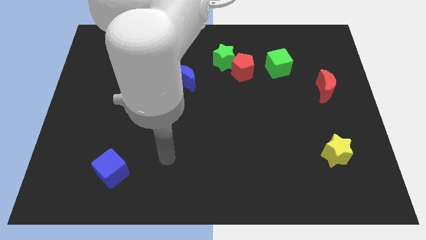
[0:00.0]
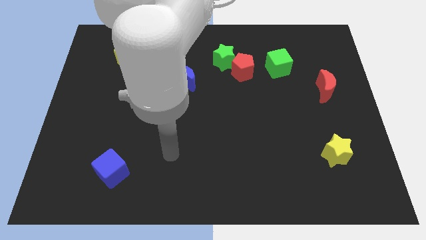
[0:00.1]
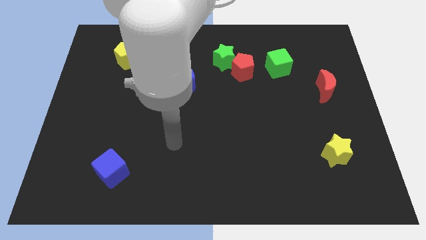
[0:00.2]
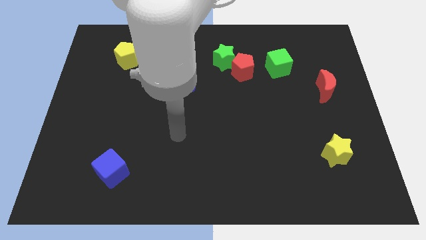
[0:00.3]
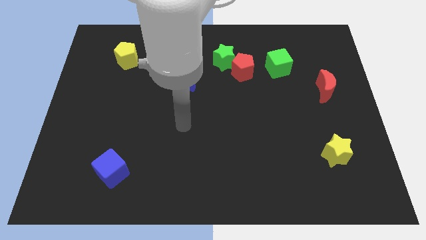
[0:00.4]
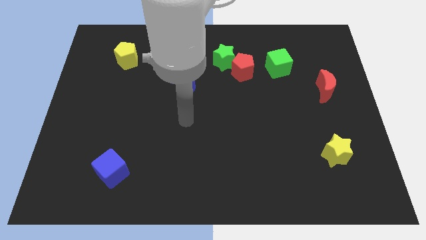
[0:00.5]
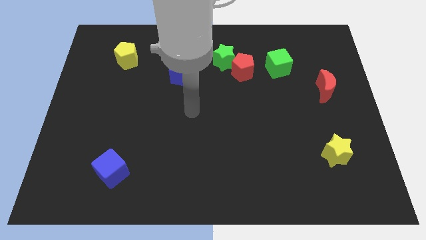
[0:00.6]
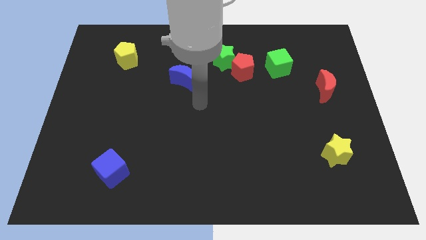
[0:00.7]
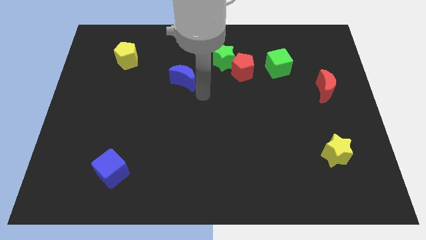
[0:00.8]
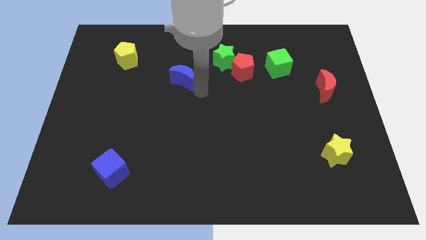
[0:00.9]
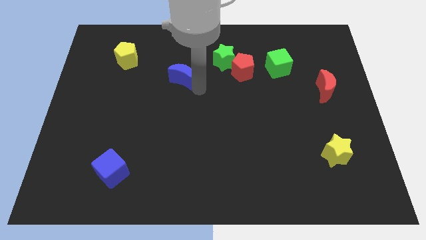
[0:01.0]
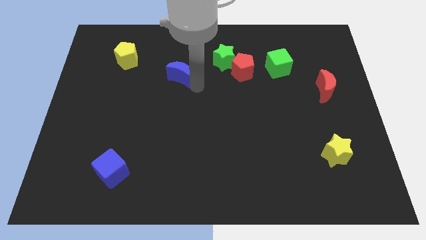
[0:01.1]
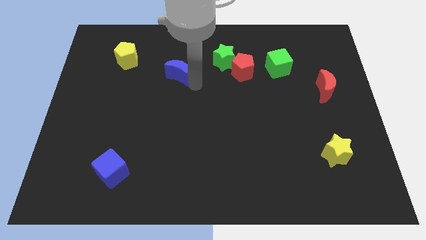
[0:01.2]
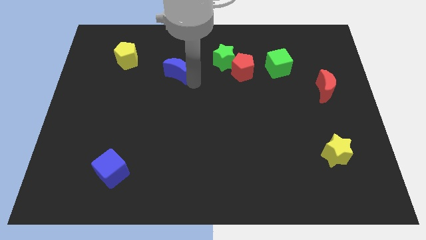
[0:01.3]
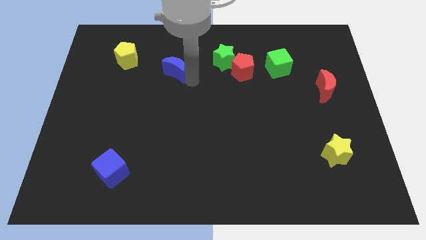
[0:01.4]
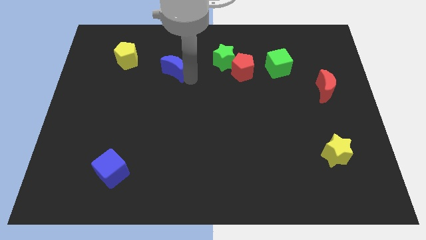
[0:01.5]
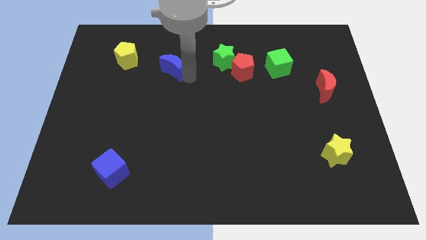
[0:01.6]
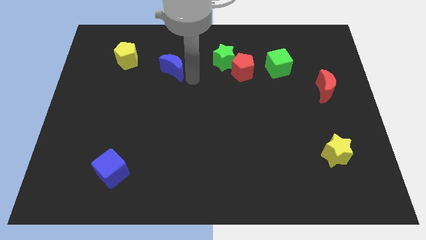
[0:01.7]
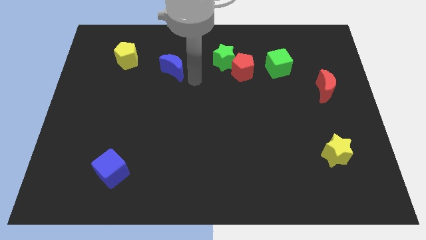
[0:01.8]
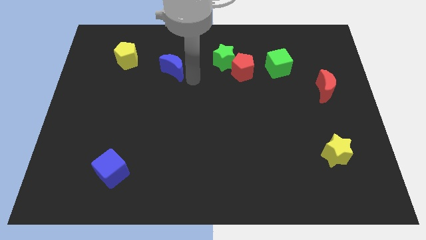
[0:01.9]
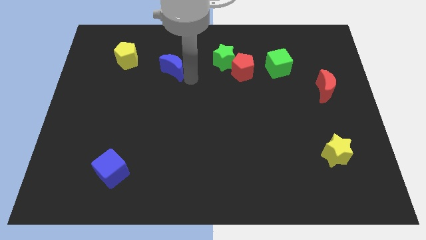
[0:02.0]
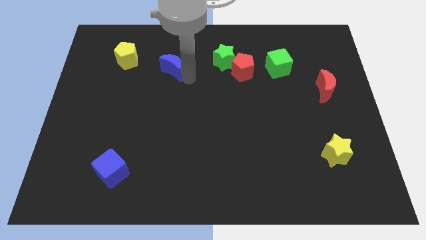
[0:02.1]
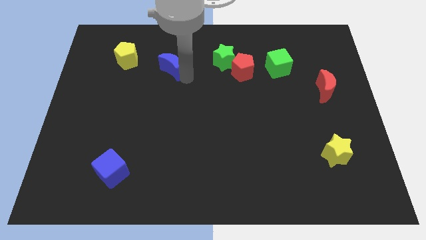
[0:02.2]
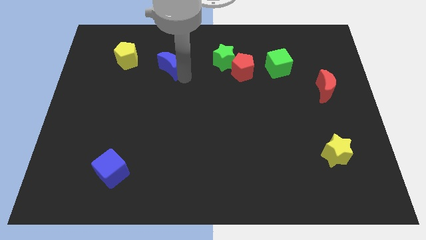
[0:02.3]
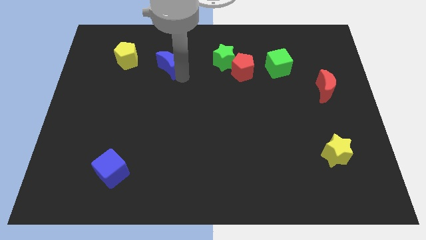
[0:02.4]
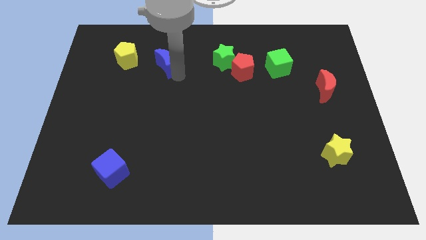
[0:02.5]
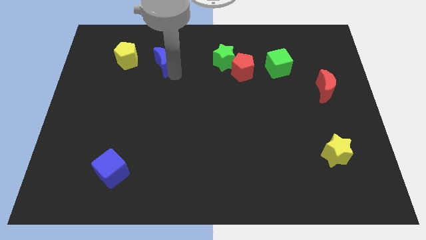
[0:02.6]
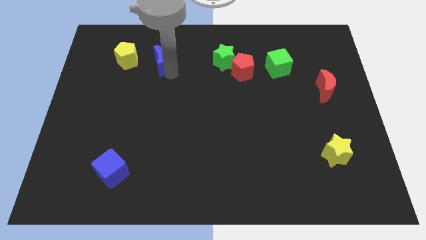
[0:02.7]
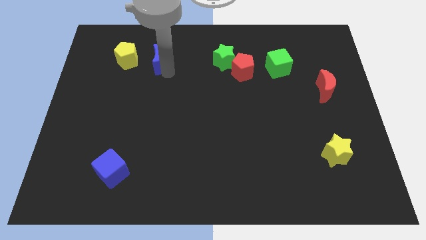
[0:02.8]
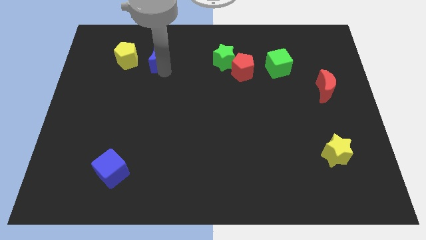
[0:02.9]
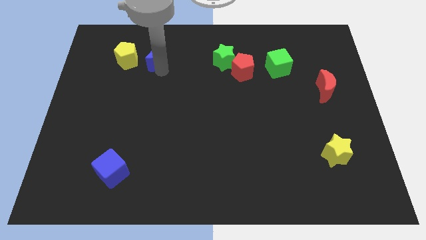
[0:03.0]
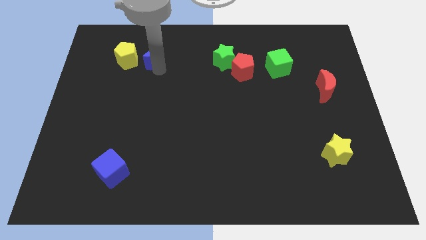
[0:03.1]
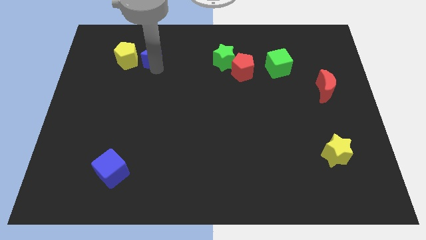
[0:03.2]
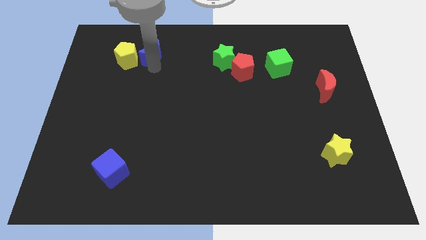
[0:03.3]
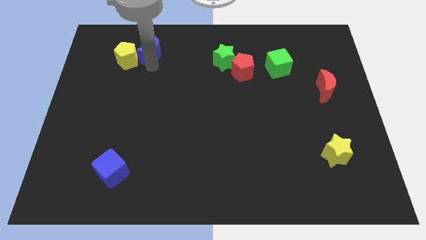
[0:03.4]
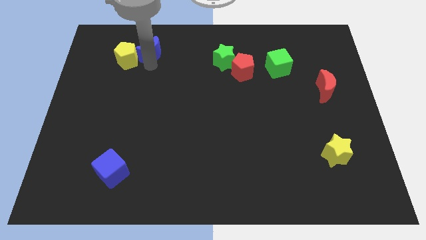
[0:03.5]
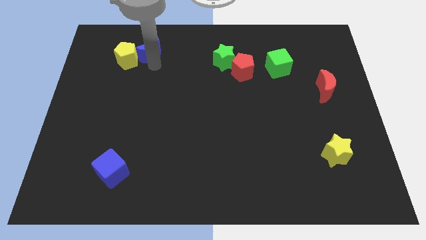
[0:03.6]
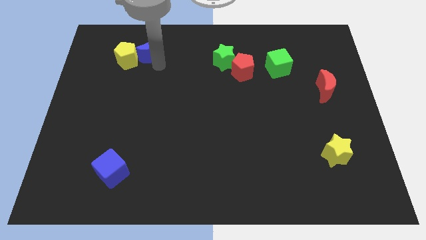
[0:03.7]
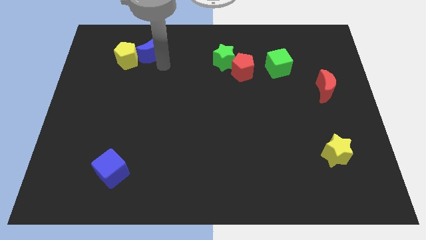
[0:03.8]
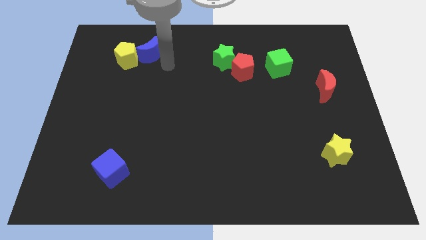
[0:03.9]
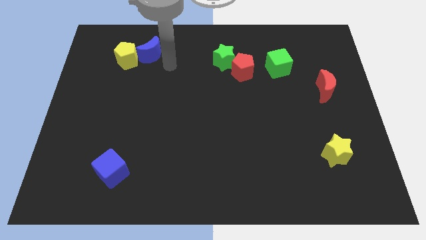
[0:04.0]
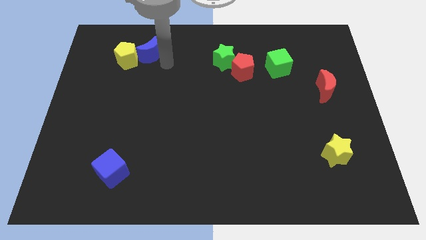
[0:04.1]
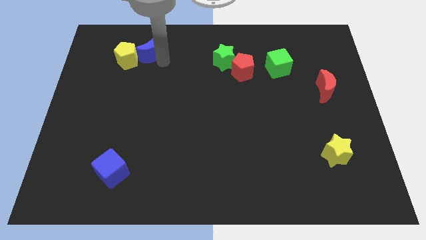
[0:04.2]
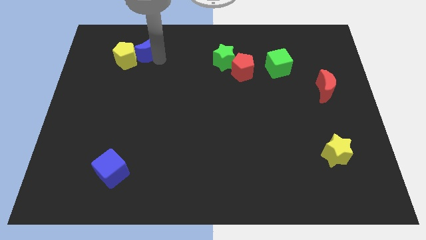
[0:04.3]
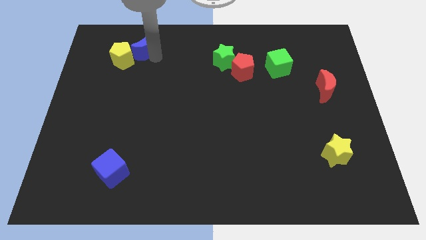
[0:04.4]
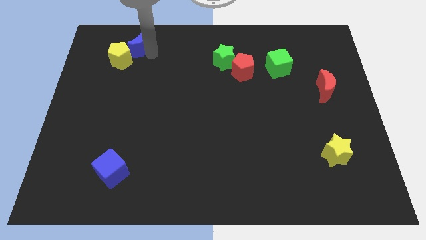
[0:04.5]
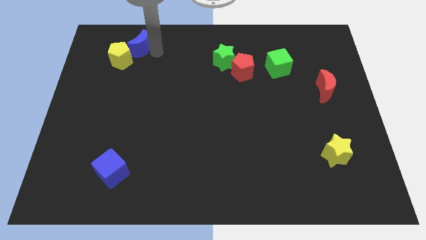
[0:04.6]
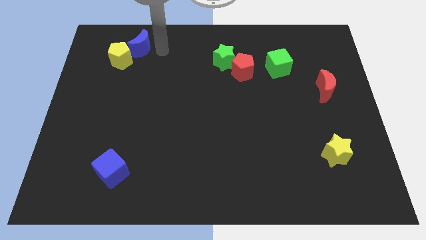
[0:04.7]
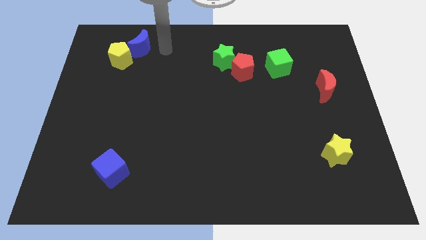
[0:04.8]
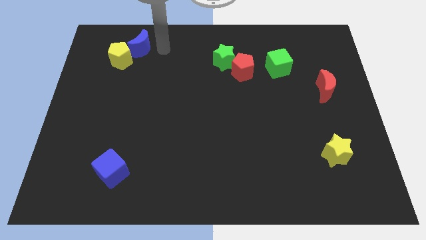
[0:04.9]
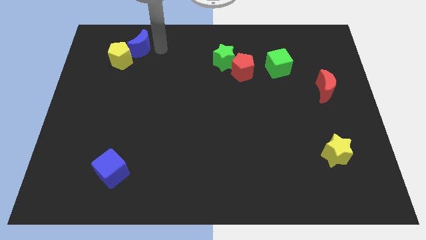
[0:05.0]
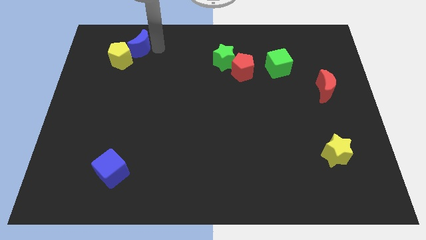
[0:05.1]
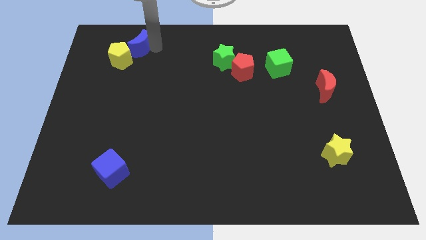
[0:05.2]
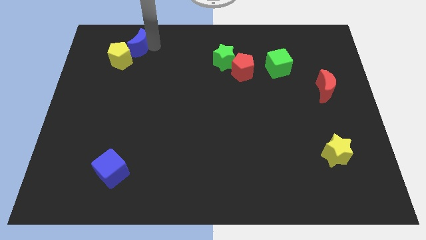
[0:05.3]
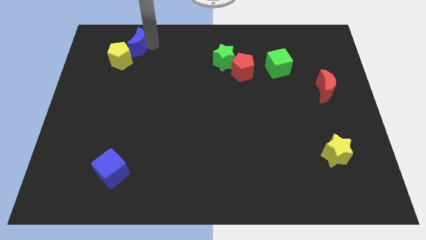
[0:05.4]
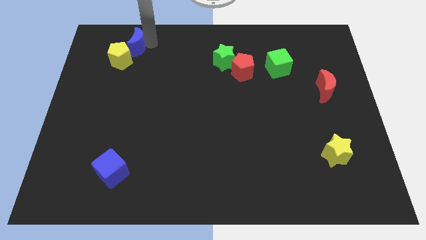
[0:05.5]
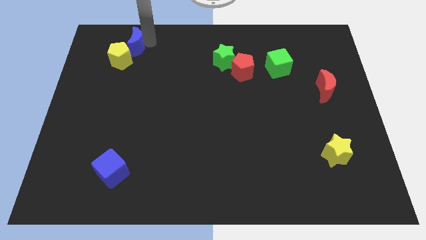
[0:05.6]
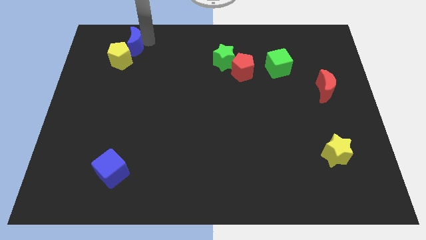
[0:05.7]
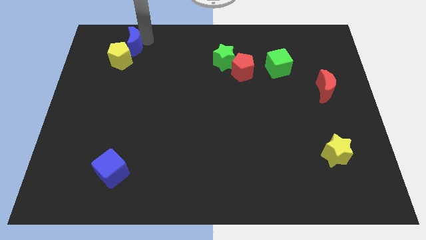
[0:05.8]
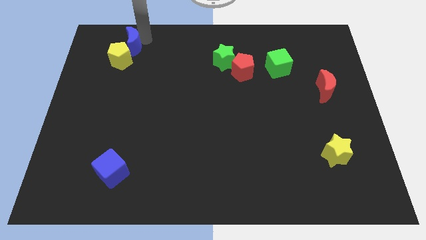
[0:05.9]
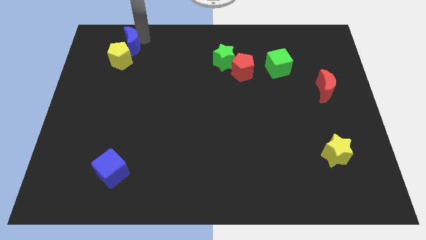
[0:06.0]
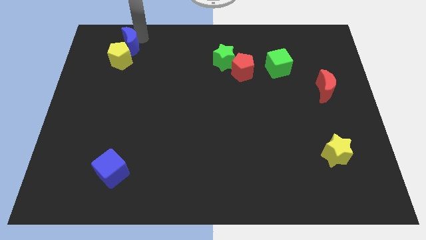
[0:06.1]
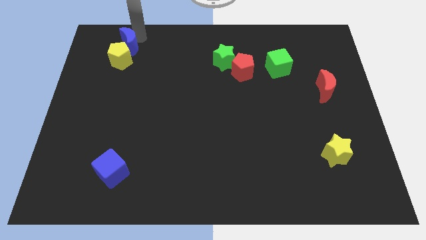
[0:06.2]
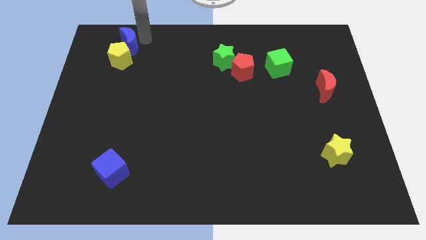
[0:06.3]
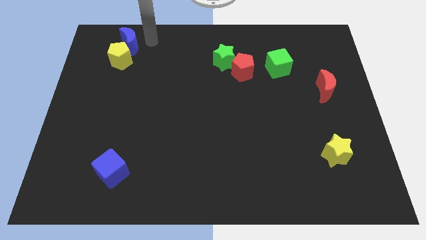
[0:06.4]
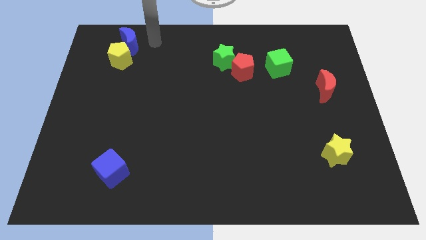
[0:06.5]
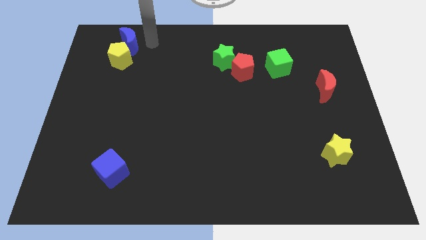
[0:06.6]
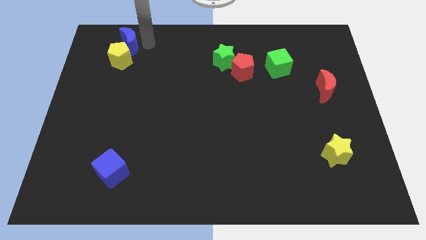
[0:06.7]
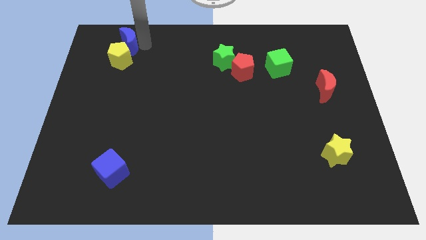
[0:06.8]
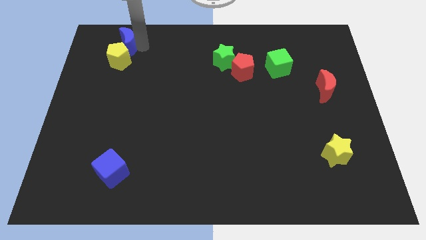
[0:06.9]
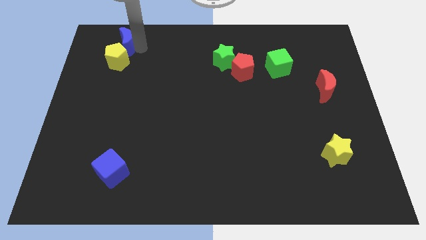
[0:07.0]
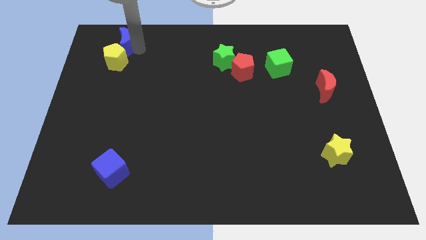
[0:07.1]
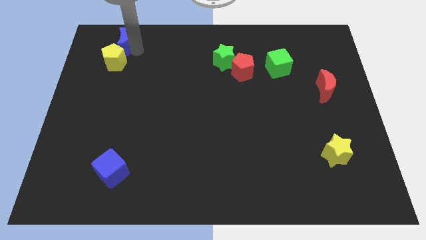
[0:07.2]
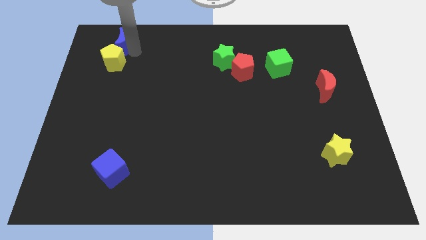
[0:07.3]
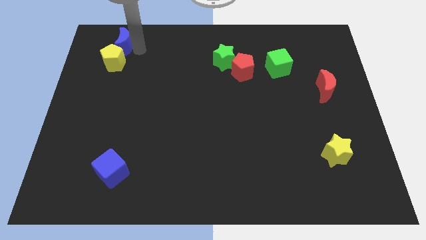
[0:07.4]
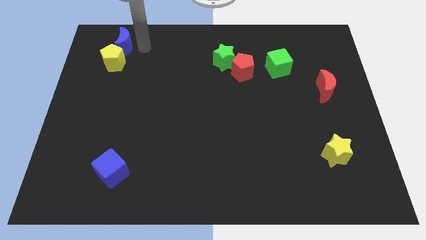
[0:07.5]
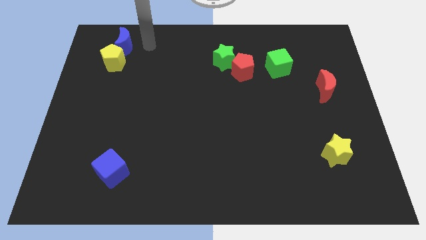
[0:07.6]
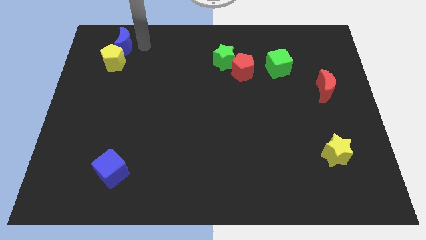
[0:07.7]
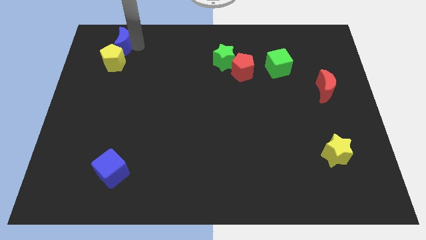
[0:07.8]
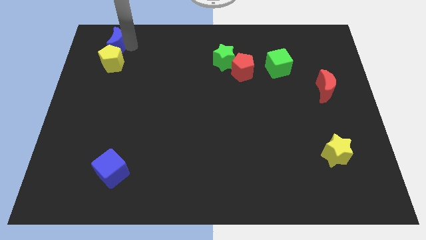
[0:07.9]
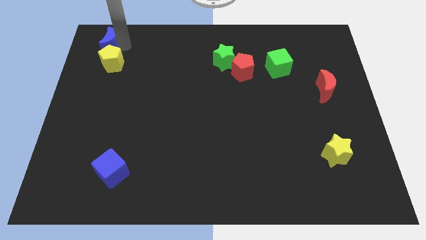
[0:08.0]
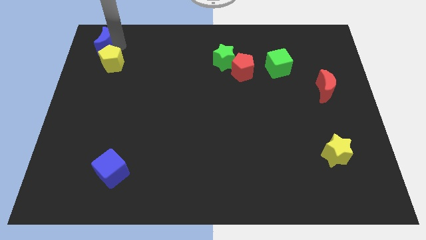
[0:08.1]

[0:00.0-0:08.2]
put the blue moon to the top left of the board
